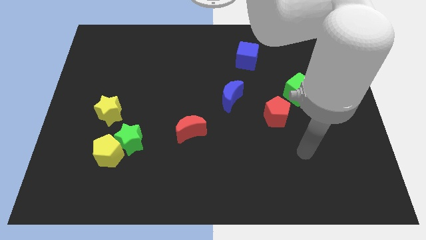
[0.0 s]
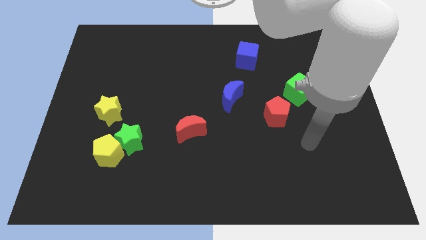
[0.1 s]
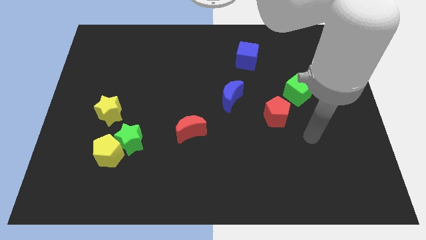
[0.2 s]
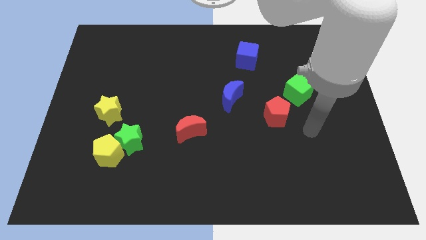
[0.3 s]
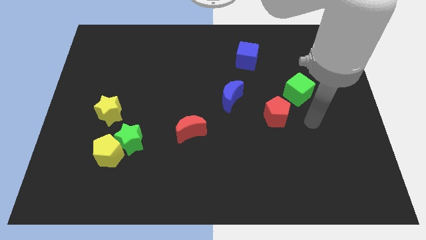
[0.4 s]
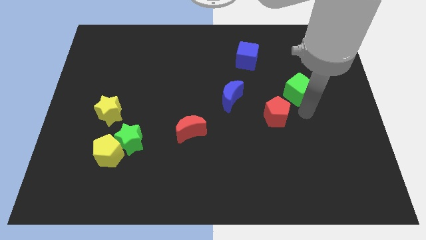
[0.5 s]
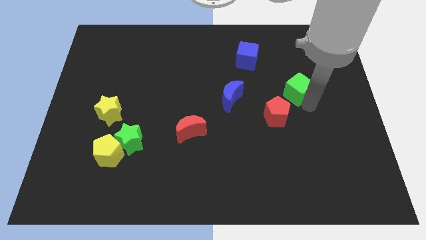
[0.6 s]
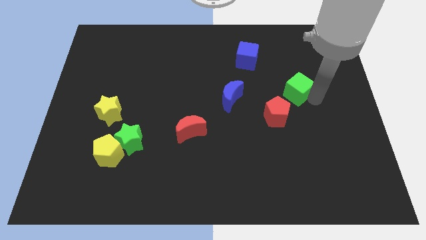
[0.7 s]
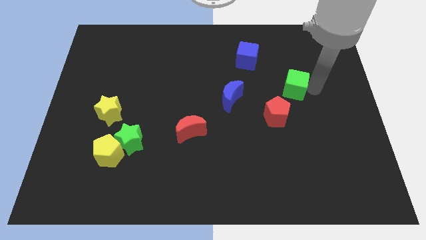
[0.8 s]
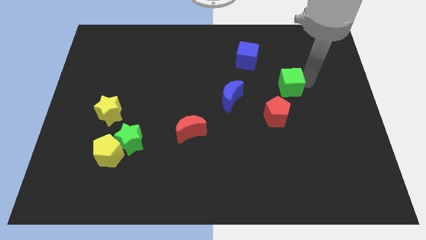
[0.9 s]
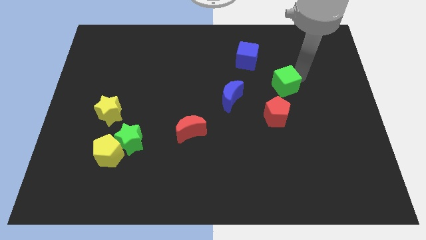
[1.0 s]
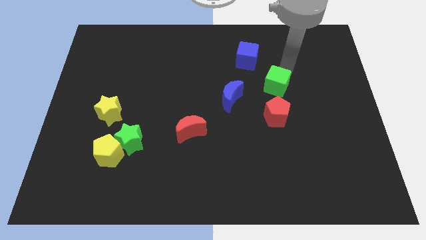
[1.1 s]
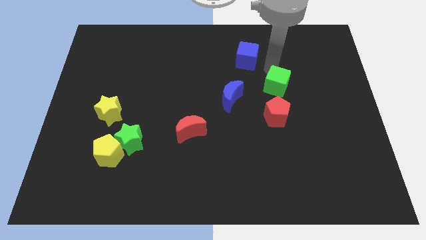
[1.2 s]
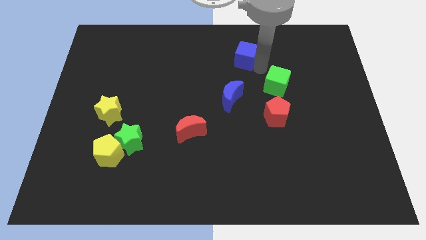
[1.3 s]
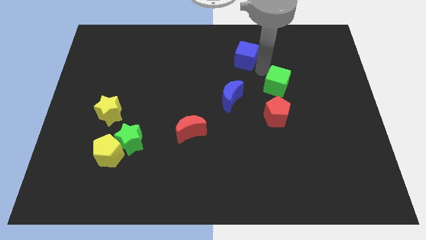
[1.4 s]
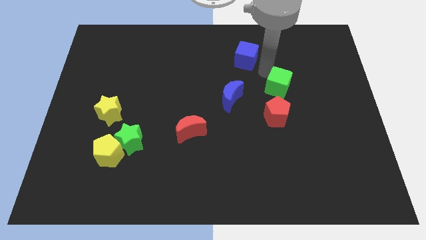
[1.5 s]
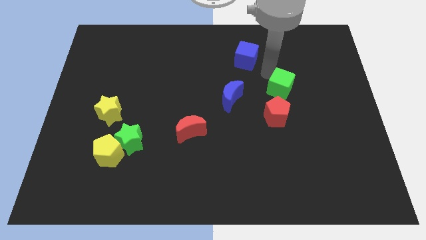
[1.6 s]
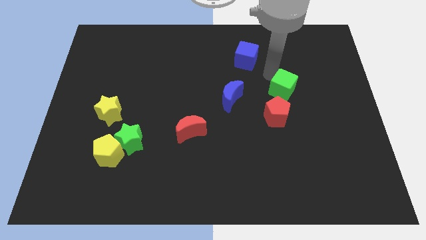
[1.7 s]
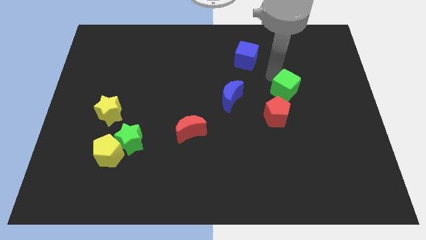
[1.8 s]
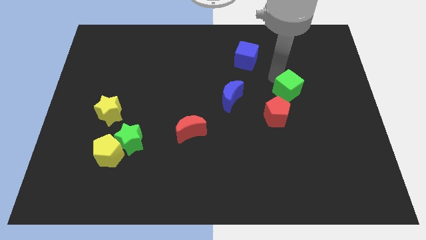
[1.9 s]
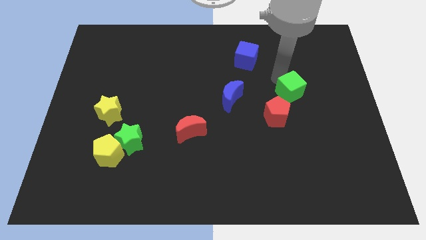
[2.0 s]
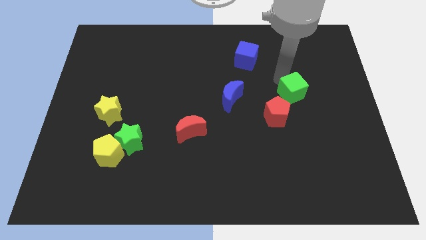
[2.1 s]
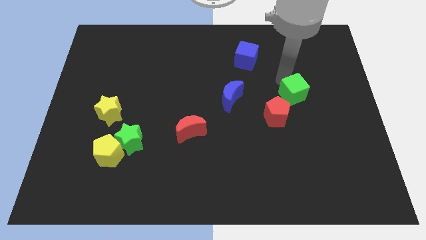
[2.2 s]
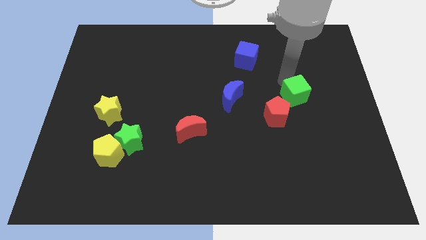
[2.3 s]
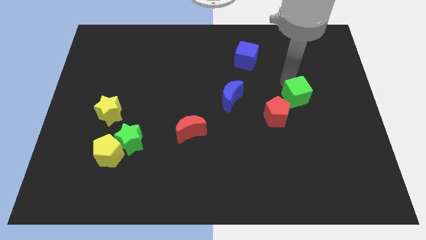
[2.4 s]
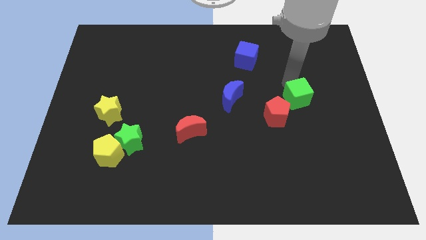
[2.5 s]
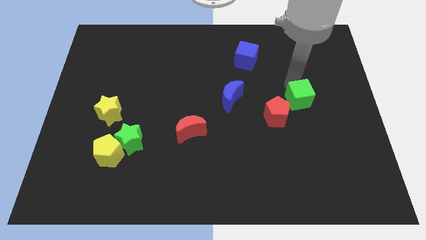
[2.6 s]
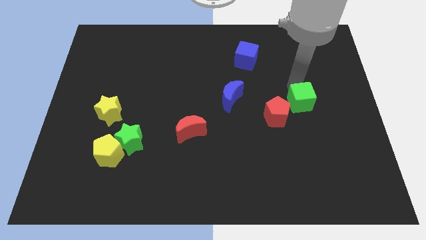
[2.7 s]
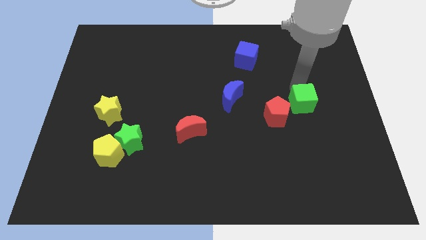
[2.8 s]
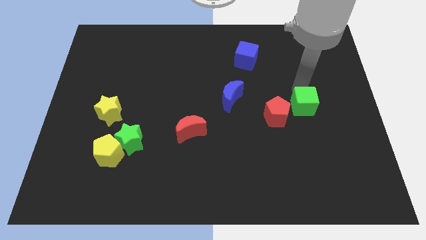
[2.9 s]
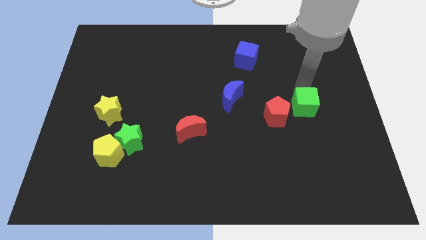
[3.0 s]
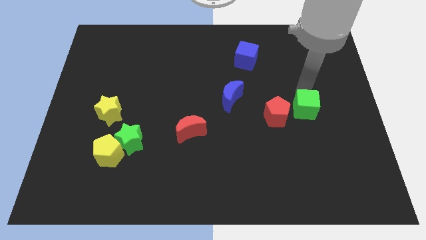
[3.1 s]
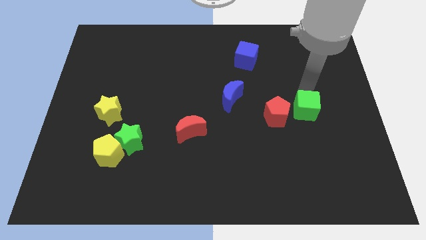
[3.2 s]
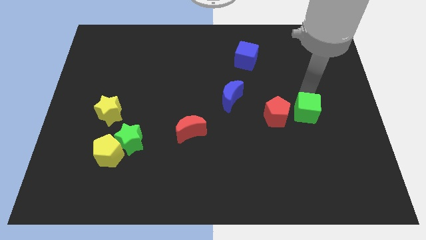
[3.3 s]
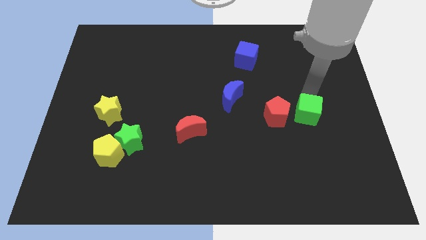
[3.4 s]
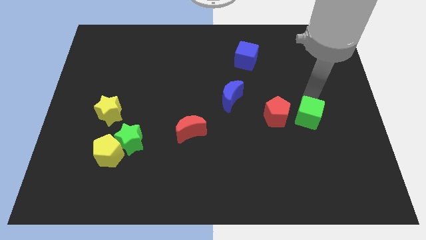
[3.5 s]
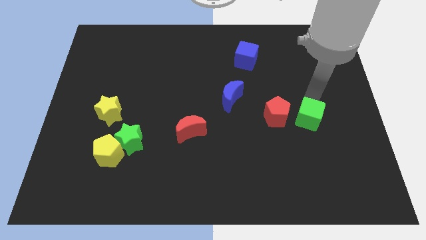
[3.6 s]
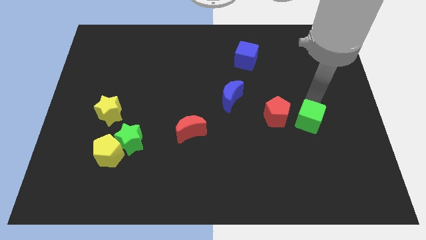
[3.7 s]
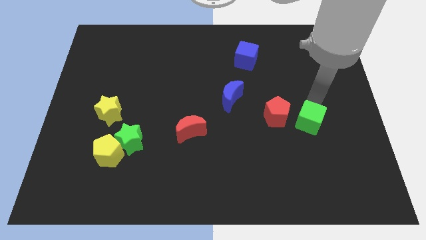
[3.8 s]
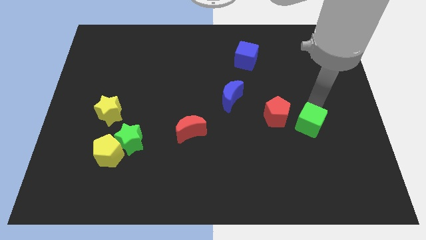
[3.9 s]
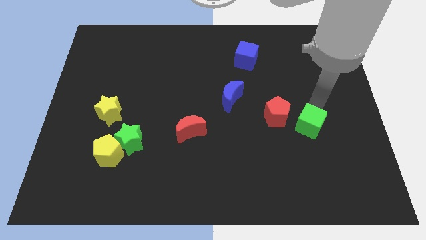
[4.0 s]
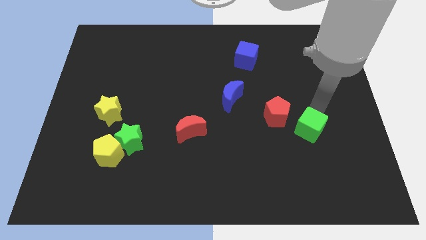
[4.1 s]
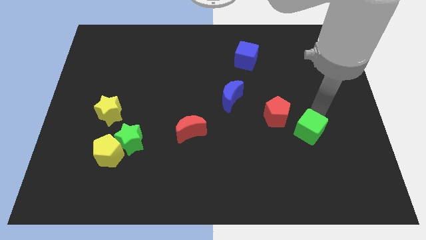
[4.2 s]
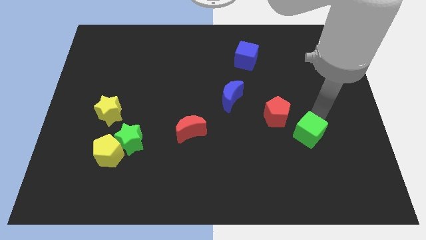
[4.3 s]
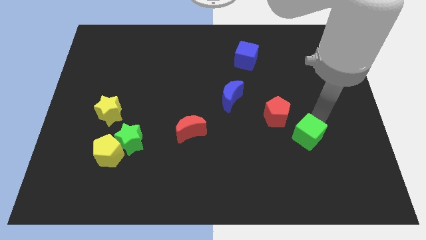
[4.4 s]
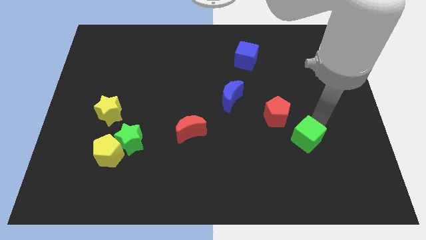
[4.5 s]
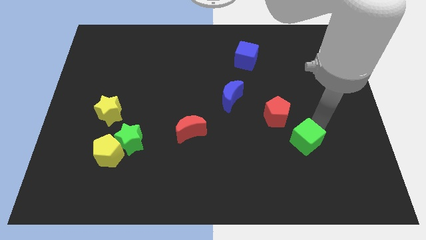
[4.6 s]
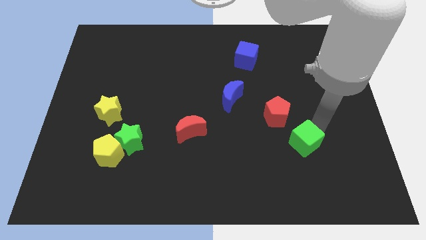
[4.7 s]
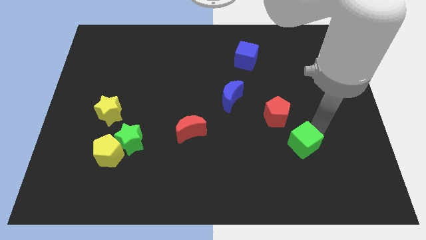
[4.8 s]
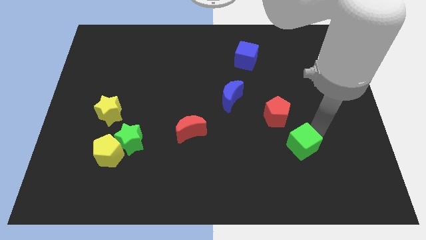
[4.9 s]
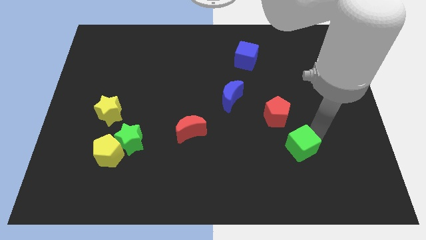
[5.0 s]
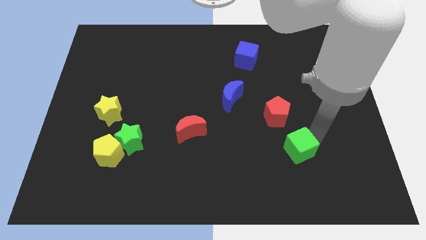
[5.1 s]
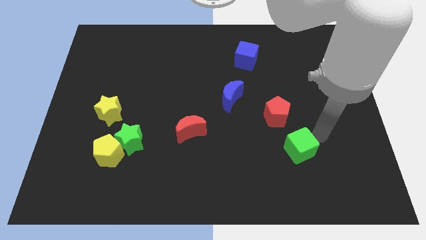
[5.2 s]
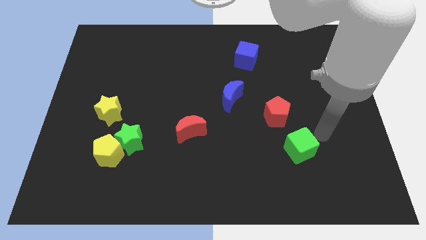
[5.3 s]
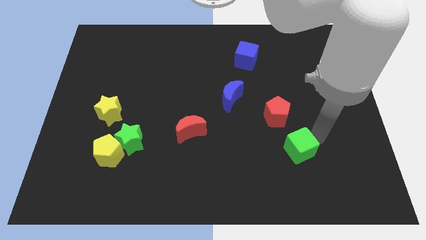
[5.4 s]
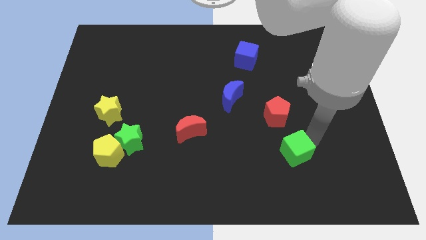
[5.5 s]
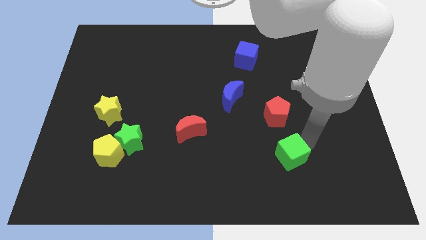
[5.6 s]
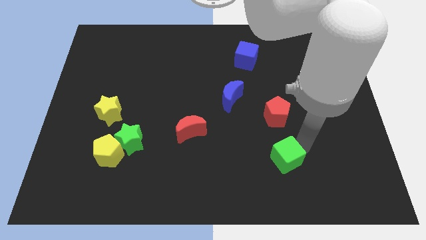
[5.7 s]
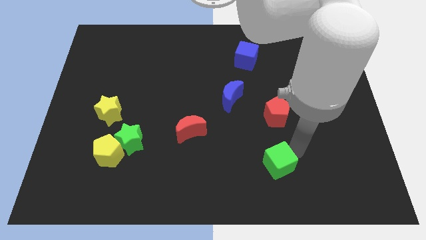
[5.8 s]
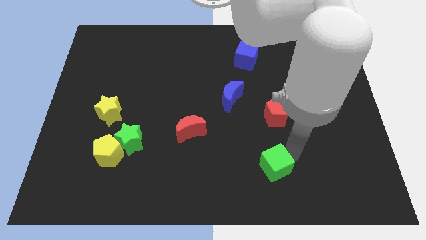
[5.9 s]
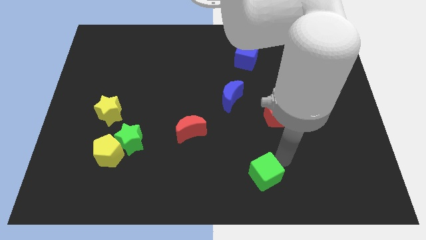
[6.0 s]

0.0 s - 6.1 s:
move the green cube to the bottom

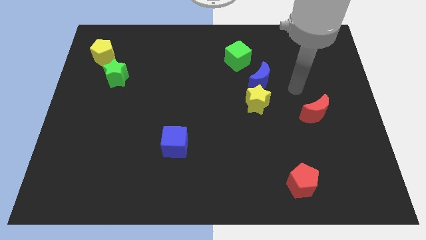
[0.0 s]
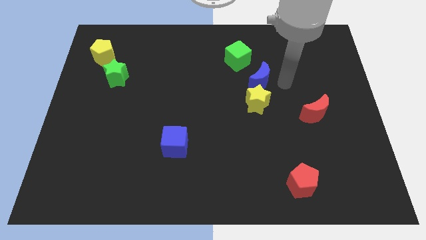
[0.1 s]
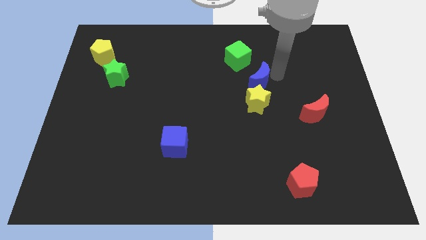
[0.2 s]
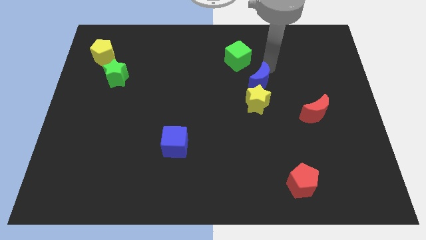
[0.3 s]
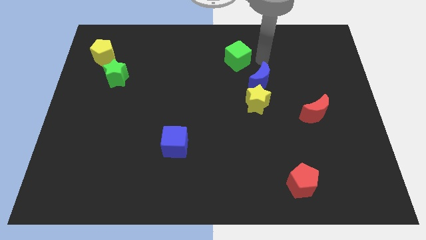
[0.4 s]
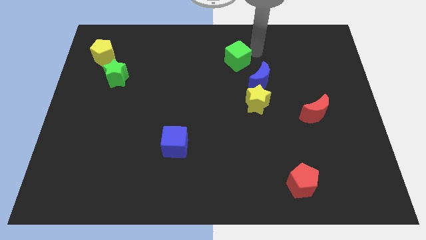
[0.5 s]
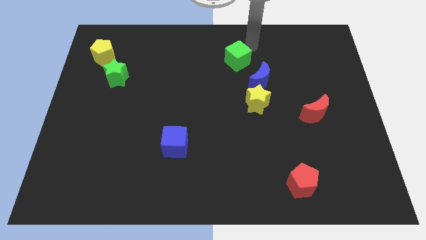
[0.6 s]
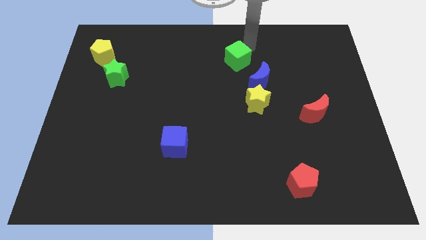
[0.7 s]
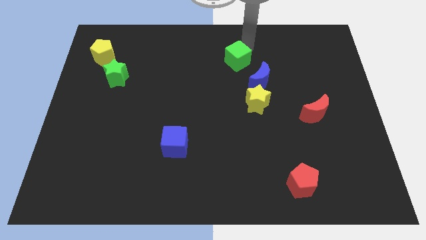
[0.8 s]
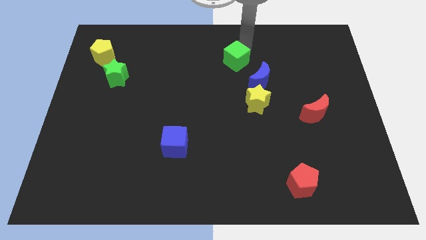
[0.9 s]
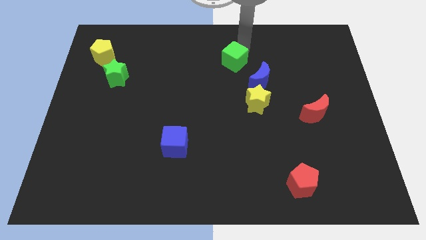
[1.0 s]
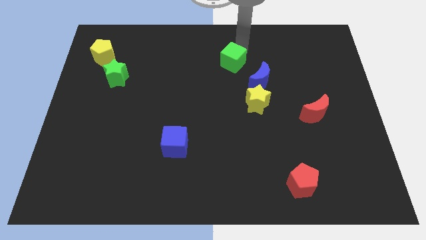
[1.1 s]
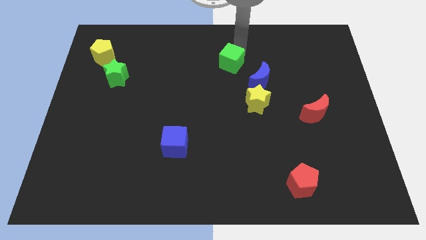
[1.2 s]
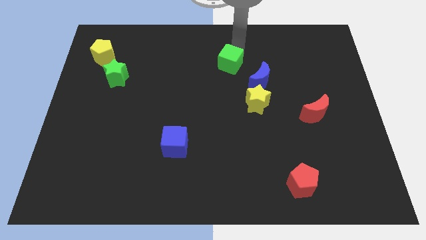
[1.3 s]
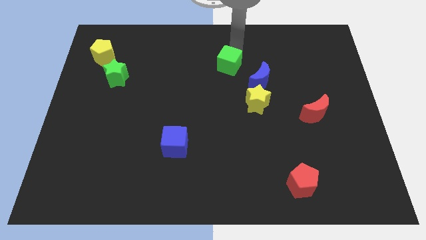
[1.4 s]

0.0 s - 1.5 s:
move the green cube to the middle
